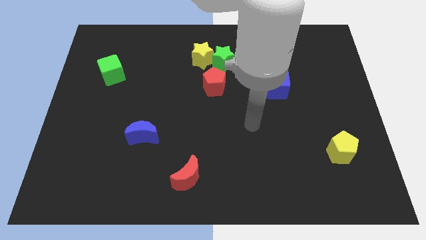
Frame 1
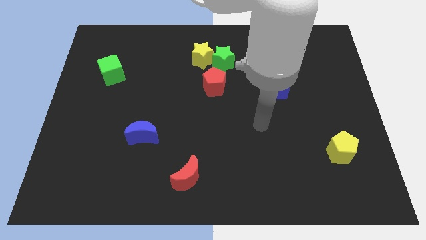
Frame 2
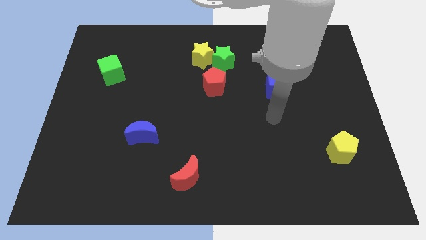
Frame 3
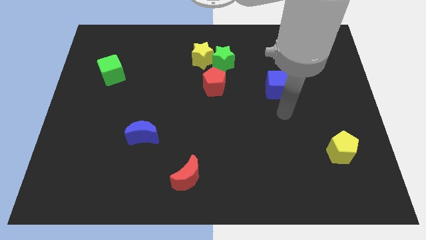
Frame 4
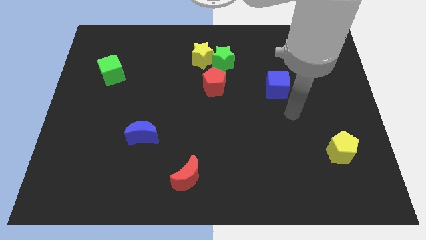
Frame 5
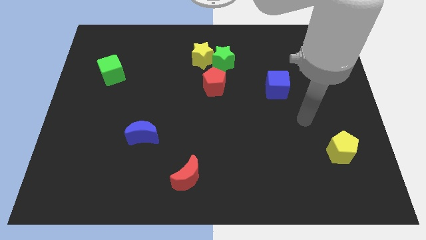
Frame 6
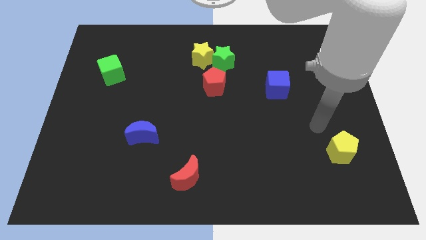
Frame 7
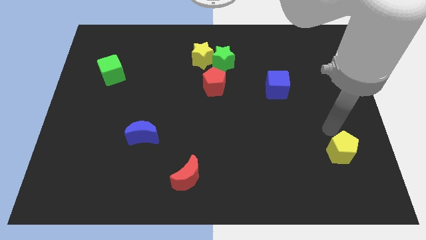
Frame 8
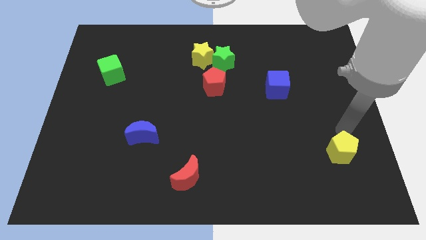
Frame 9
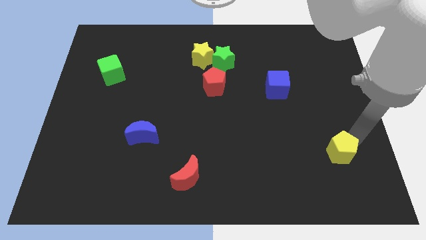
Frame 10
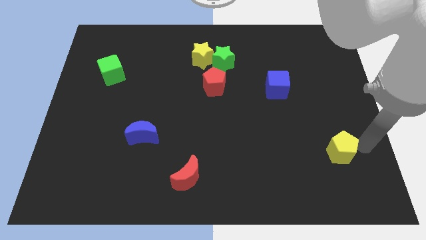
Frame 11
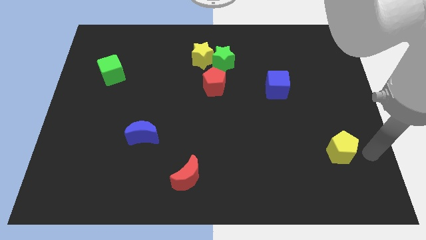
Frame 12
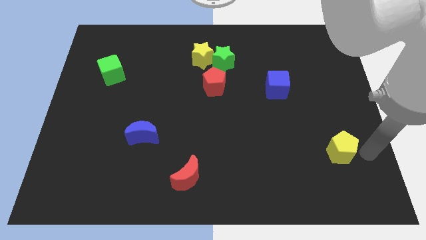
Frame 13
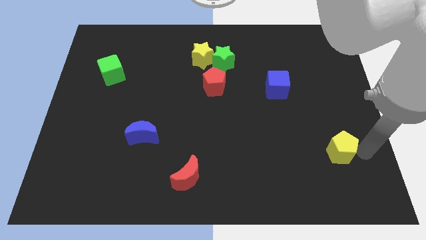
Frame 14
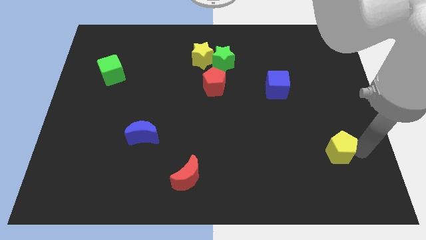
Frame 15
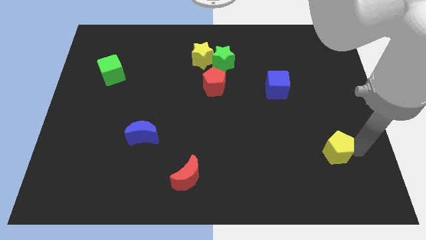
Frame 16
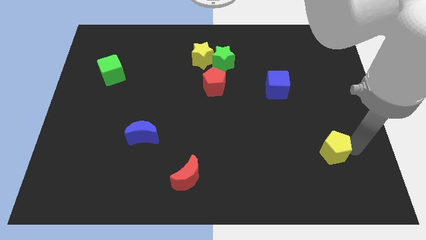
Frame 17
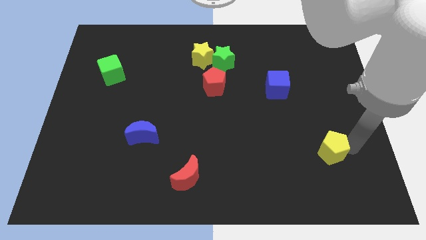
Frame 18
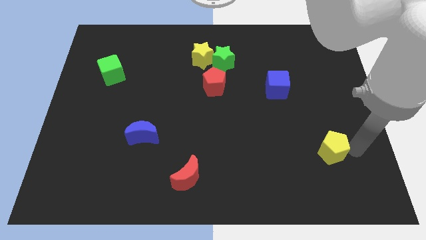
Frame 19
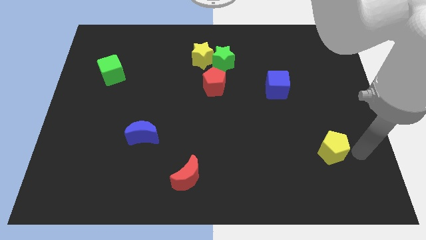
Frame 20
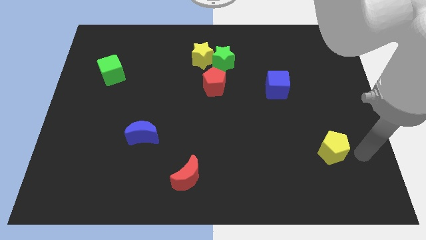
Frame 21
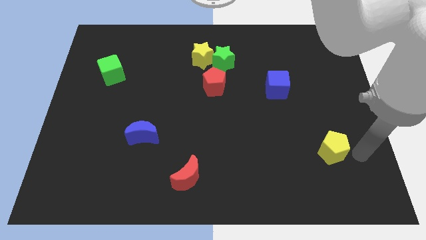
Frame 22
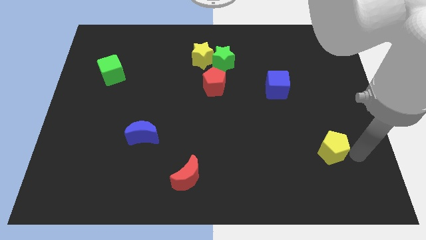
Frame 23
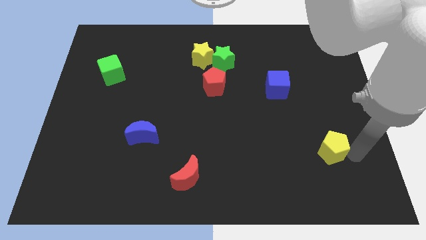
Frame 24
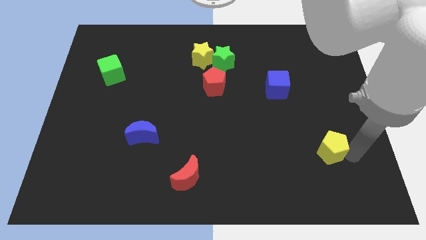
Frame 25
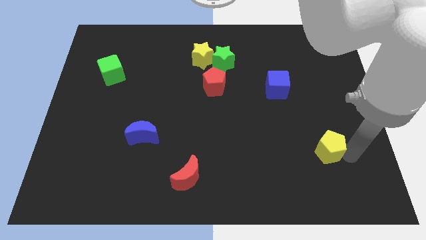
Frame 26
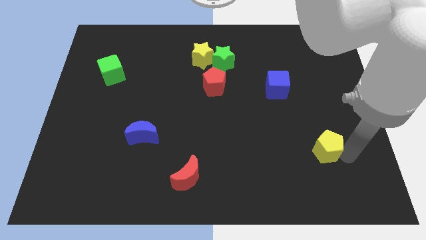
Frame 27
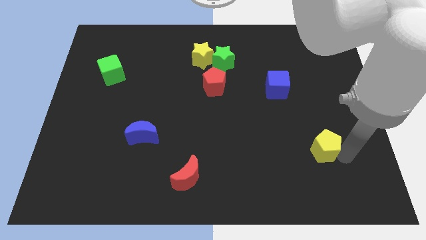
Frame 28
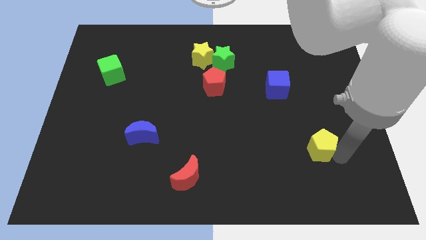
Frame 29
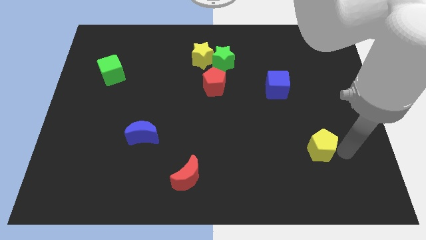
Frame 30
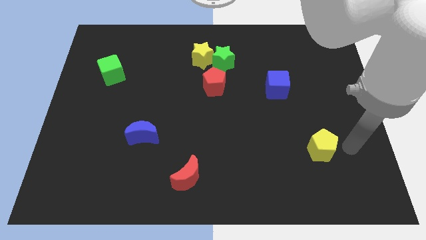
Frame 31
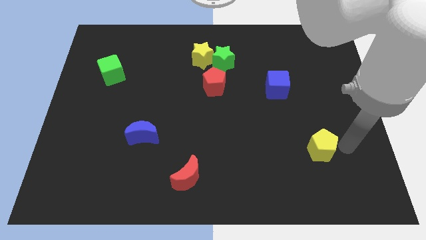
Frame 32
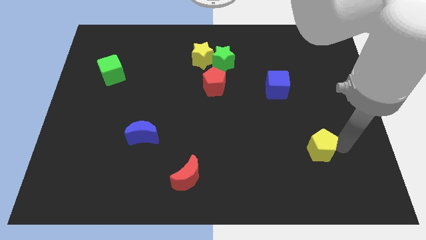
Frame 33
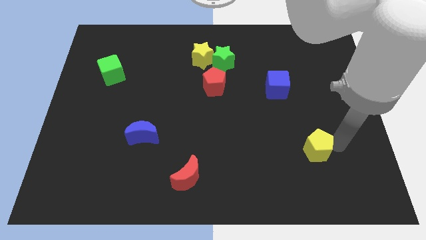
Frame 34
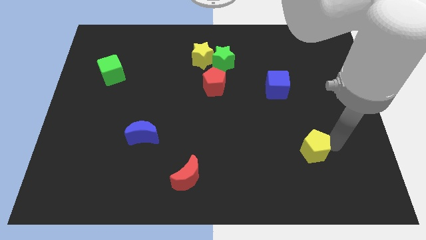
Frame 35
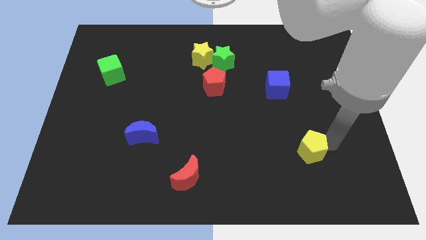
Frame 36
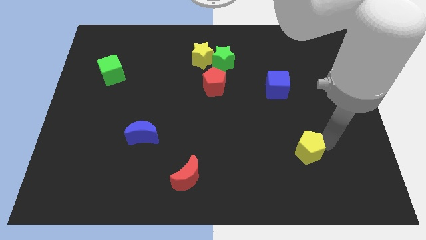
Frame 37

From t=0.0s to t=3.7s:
slightly slide the yellow pentagon to the left

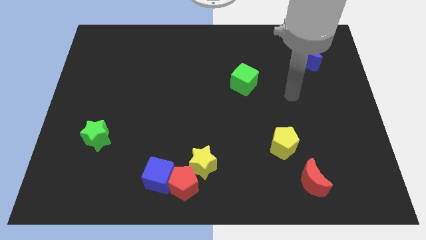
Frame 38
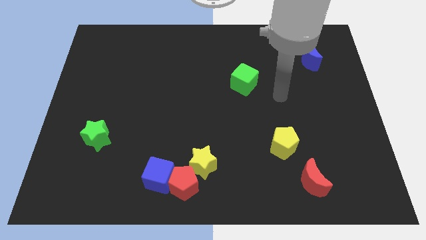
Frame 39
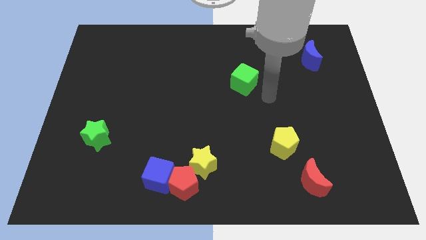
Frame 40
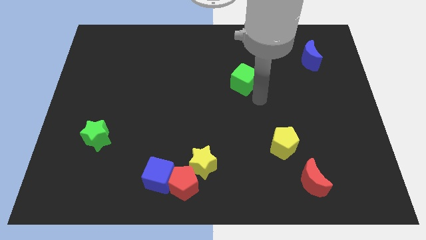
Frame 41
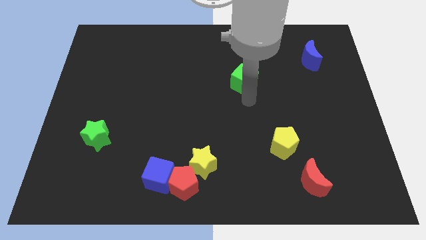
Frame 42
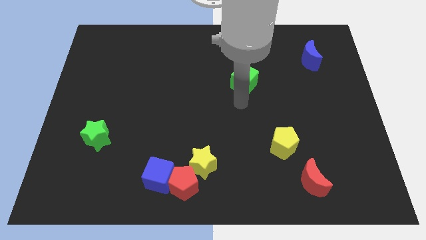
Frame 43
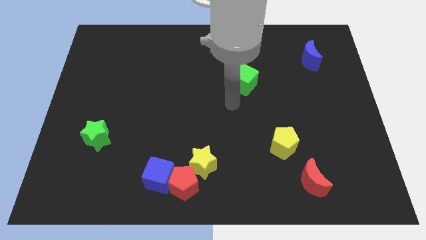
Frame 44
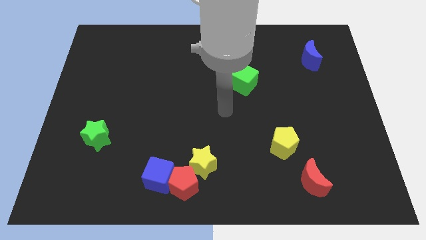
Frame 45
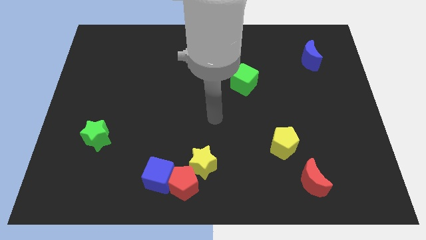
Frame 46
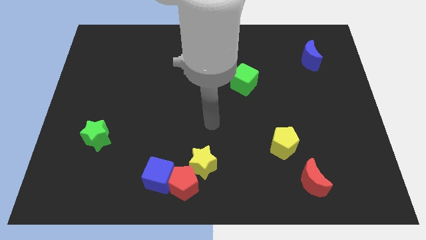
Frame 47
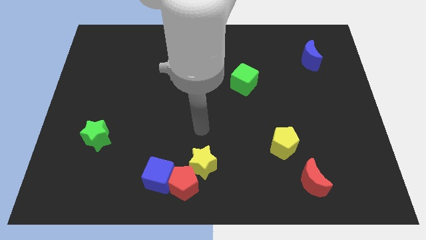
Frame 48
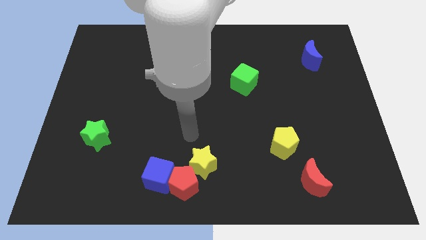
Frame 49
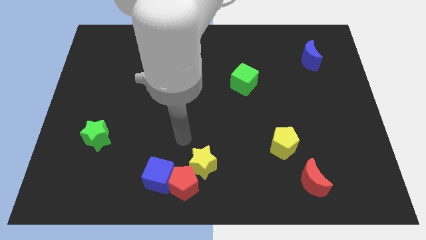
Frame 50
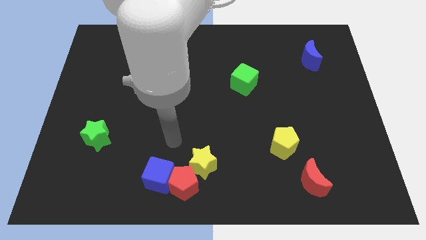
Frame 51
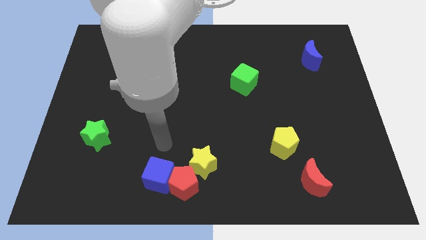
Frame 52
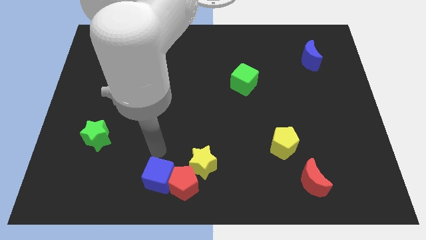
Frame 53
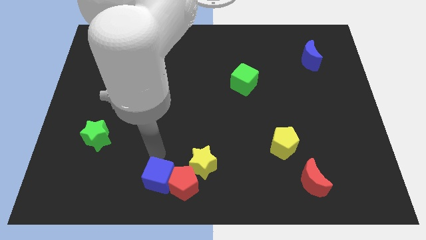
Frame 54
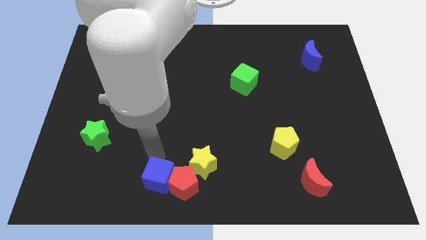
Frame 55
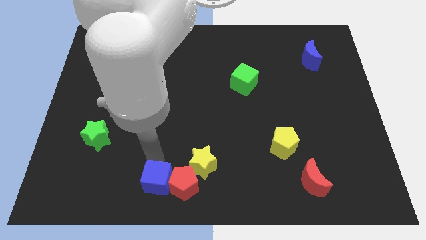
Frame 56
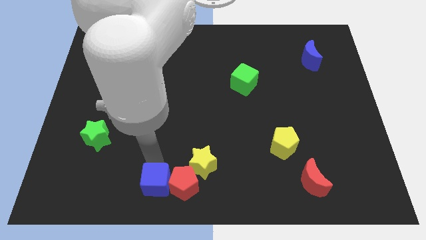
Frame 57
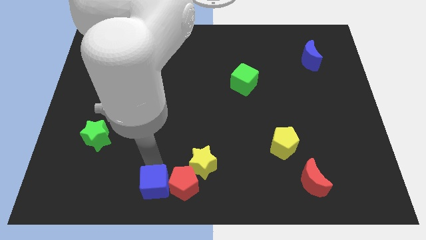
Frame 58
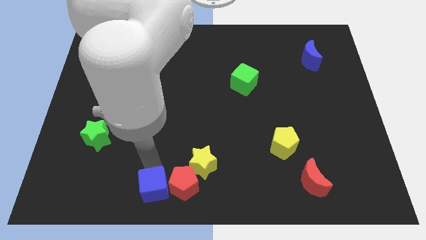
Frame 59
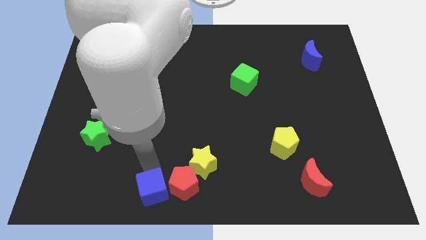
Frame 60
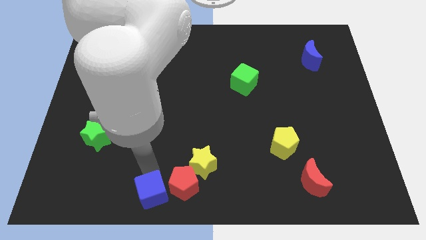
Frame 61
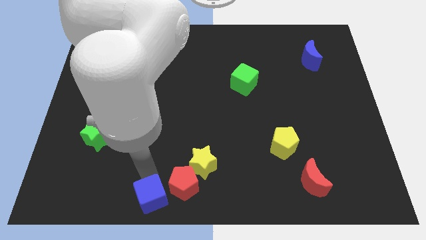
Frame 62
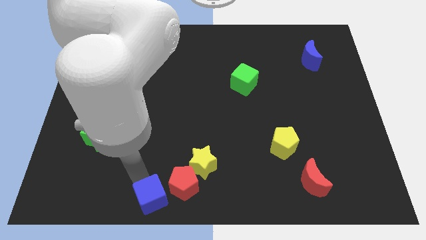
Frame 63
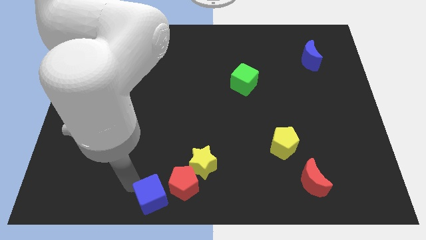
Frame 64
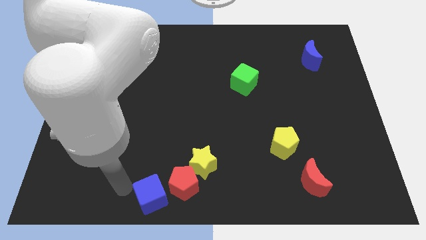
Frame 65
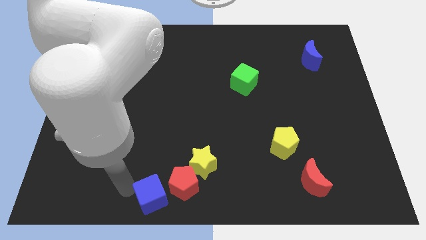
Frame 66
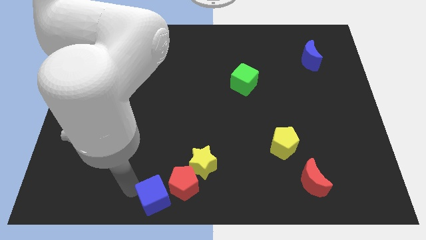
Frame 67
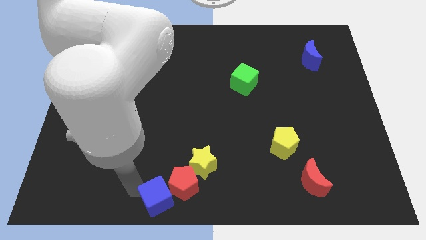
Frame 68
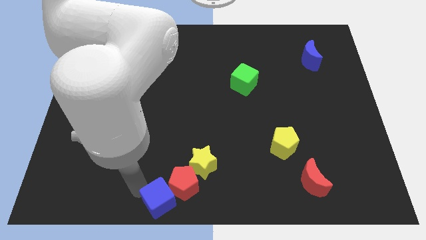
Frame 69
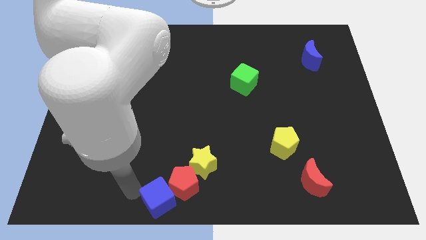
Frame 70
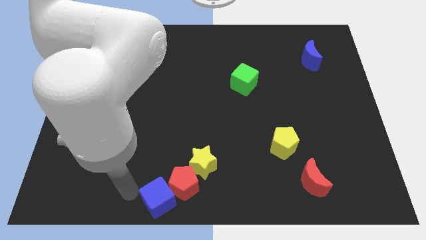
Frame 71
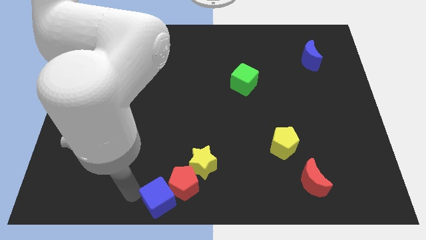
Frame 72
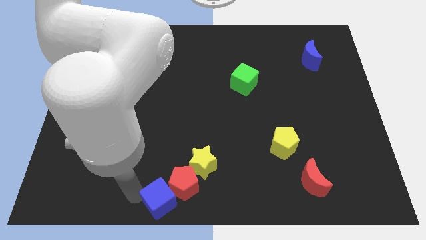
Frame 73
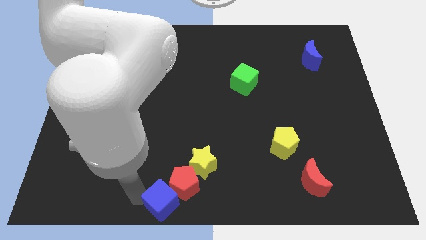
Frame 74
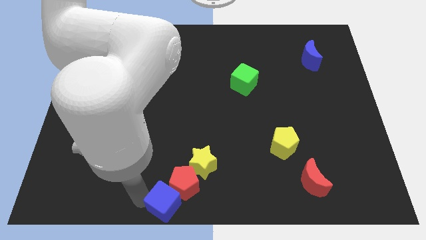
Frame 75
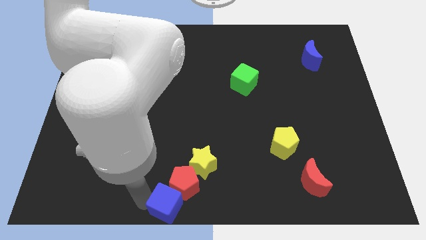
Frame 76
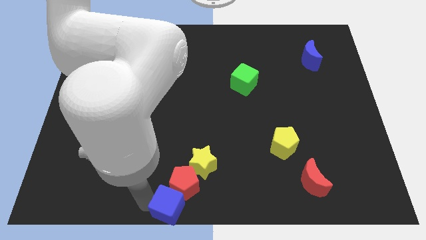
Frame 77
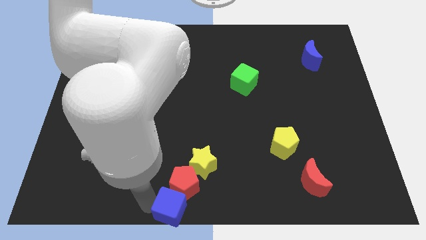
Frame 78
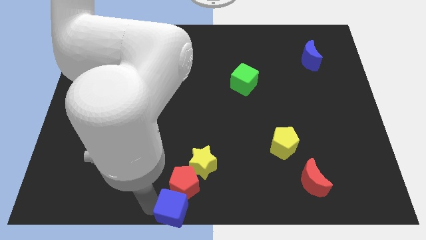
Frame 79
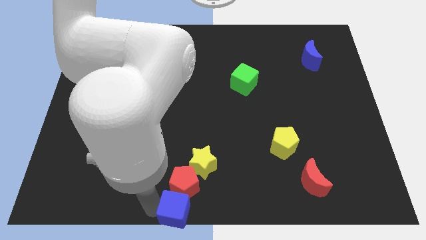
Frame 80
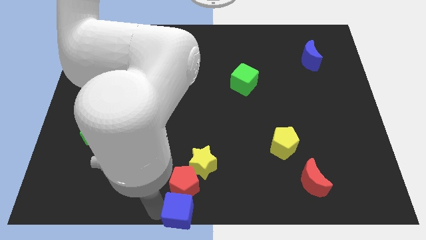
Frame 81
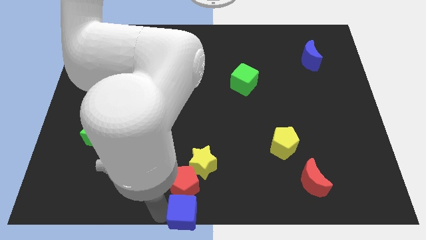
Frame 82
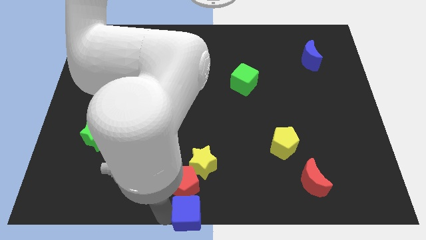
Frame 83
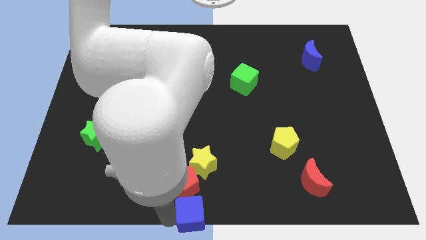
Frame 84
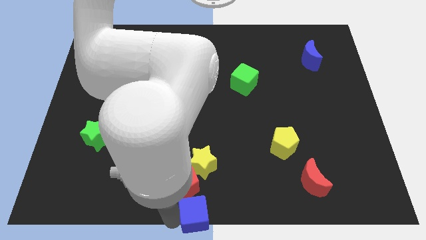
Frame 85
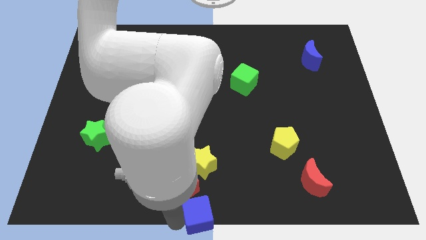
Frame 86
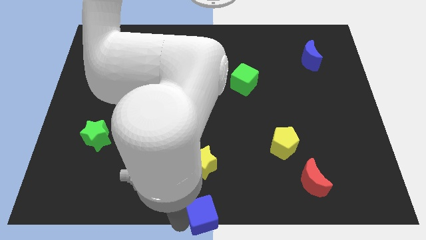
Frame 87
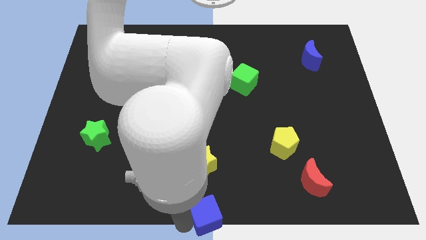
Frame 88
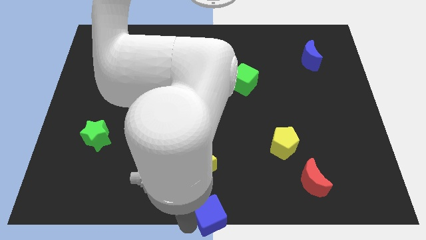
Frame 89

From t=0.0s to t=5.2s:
move the blue cube right a little
